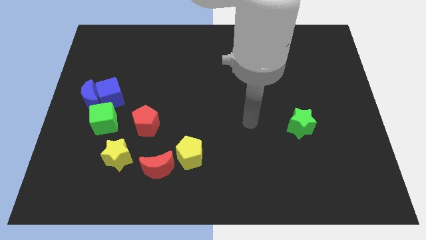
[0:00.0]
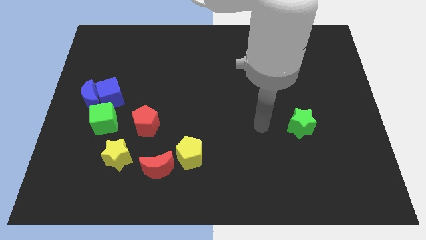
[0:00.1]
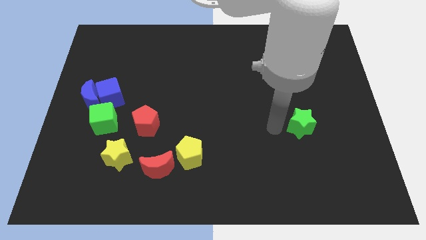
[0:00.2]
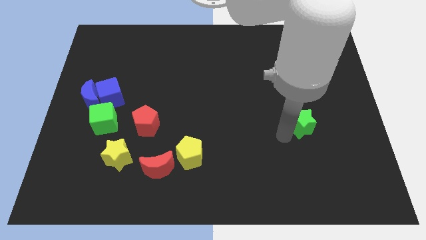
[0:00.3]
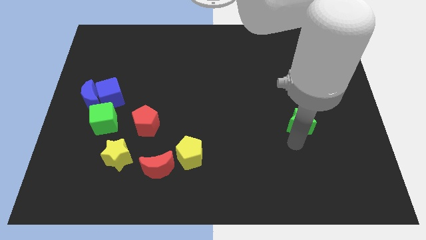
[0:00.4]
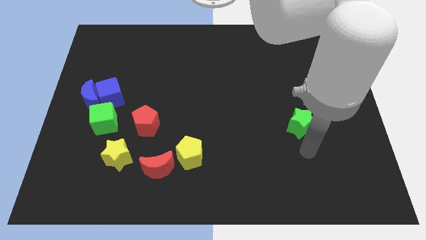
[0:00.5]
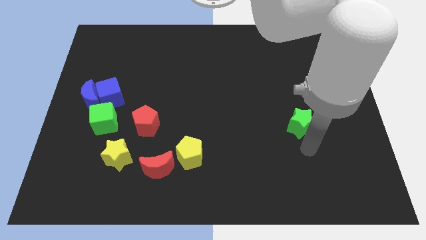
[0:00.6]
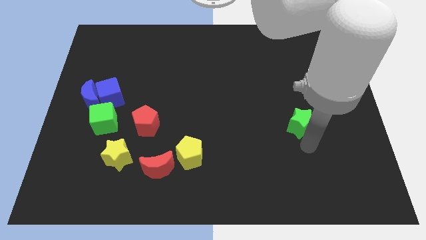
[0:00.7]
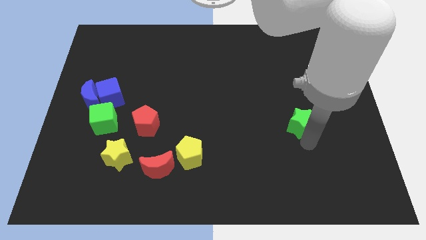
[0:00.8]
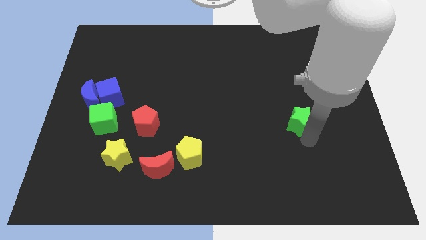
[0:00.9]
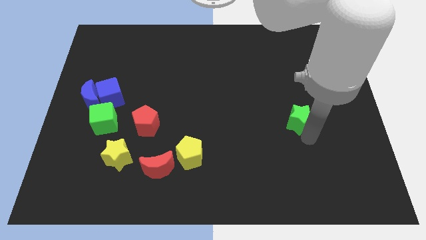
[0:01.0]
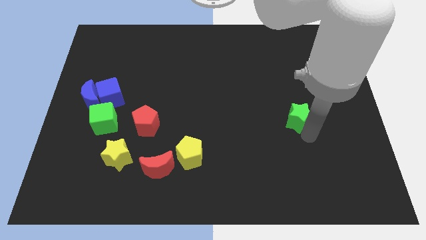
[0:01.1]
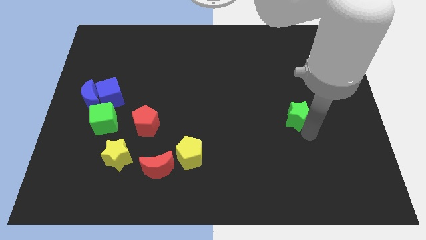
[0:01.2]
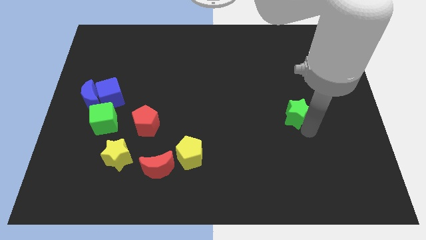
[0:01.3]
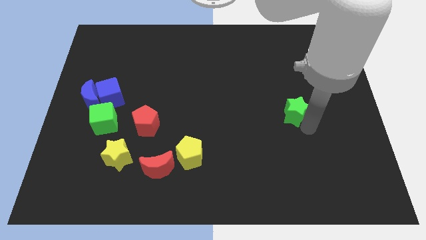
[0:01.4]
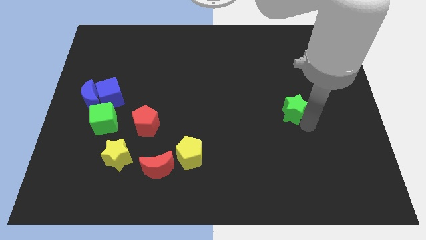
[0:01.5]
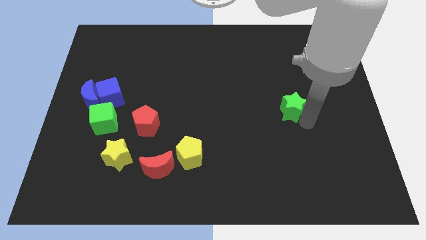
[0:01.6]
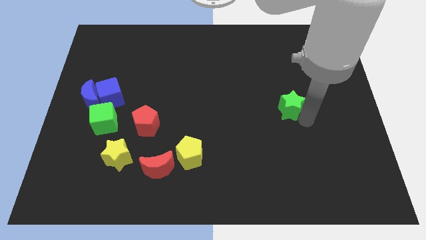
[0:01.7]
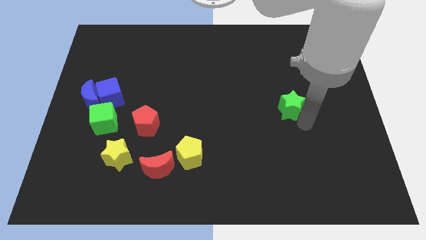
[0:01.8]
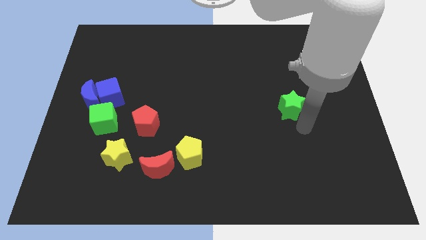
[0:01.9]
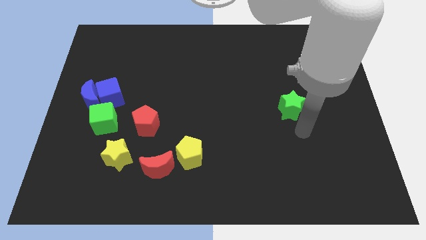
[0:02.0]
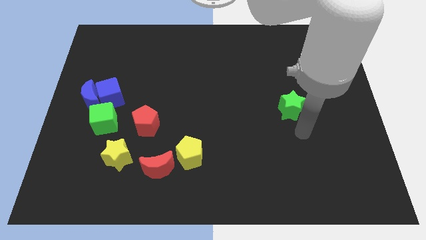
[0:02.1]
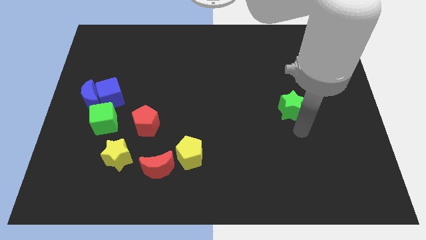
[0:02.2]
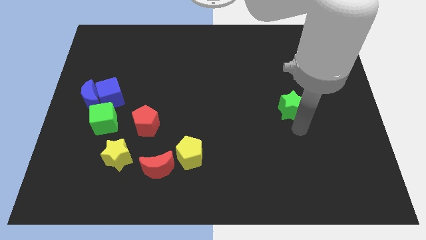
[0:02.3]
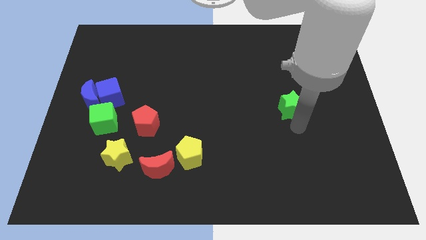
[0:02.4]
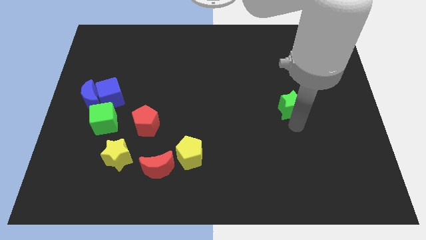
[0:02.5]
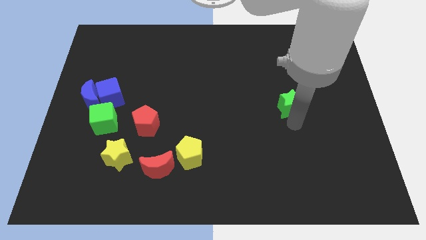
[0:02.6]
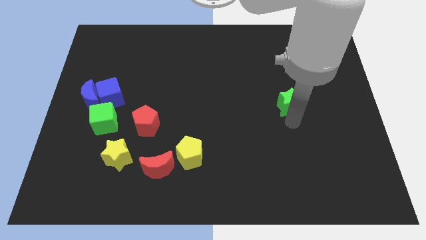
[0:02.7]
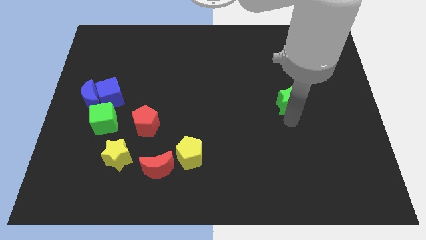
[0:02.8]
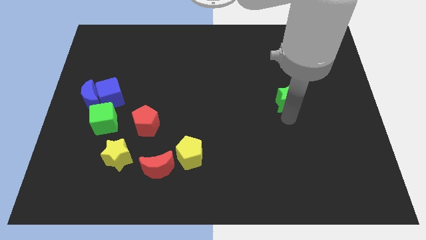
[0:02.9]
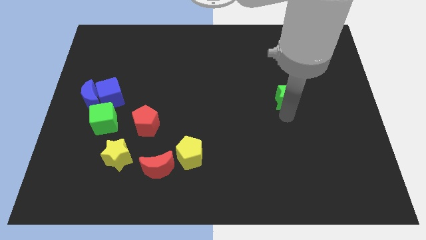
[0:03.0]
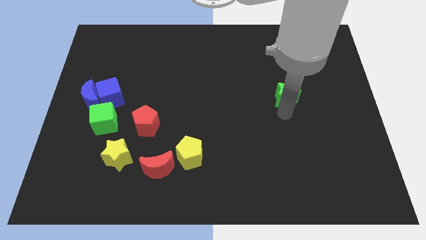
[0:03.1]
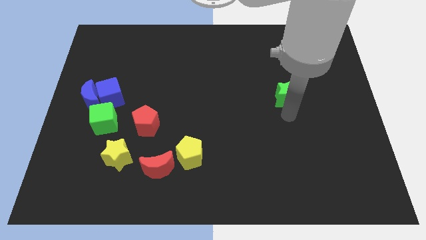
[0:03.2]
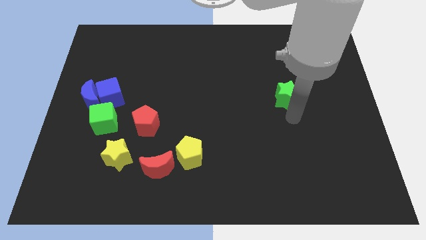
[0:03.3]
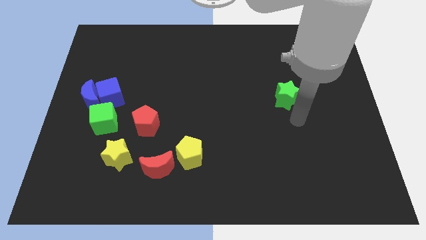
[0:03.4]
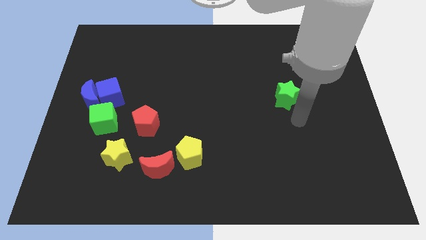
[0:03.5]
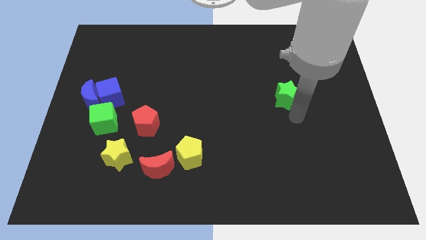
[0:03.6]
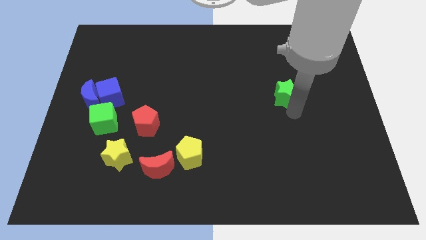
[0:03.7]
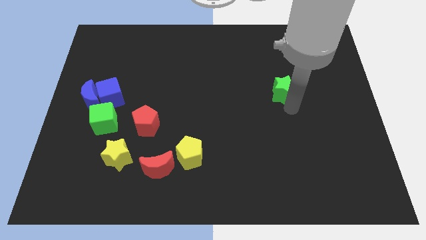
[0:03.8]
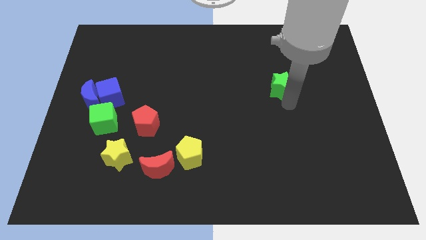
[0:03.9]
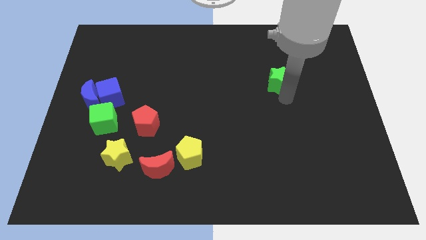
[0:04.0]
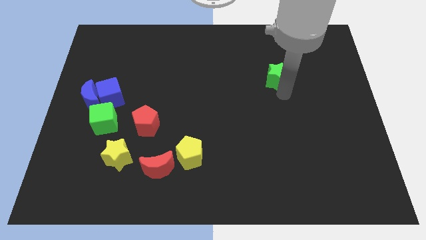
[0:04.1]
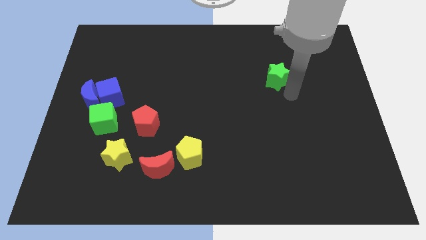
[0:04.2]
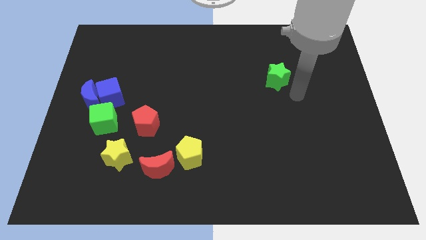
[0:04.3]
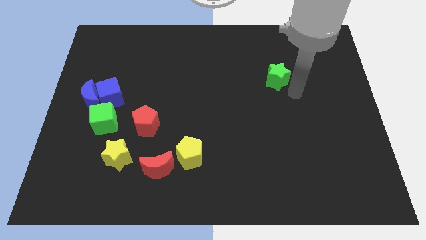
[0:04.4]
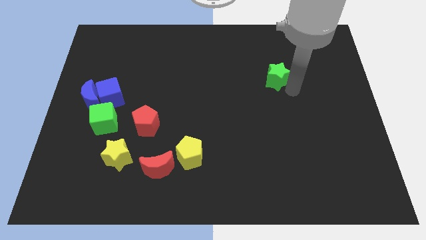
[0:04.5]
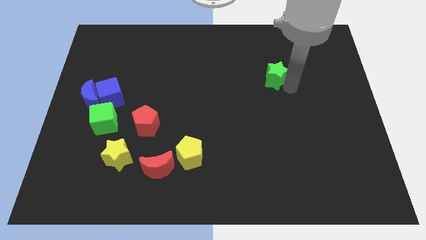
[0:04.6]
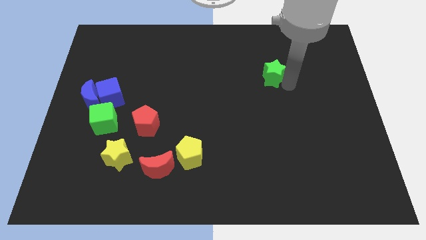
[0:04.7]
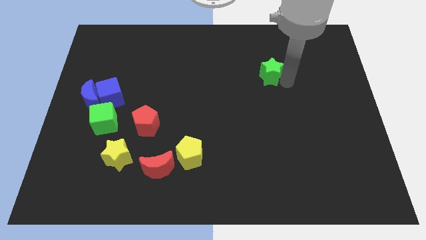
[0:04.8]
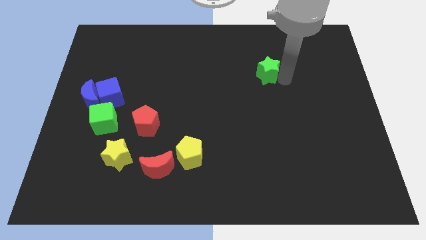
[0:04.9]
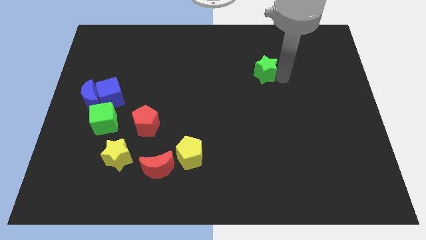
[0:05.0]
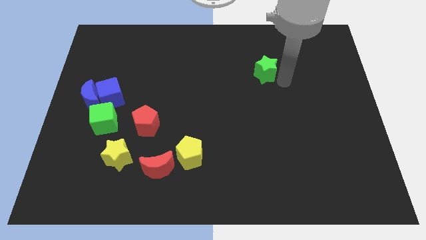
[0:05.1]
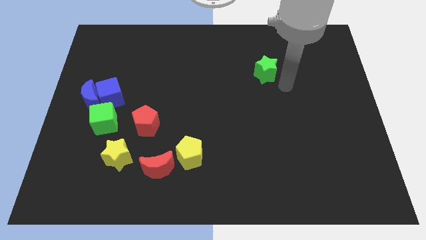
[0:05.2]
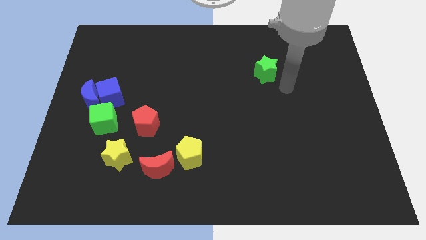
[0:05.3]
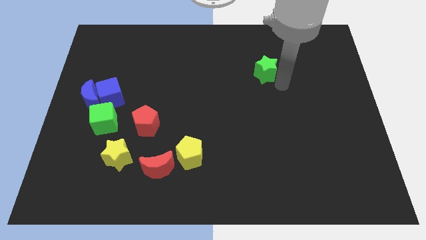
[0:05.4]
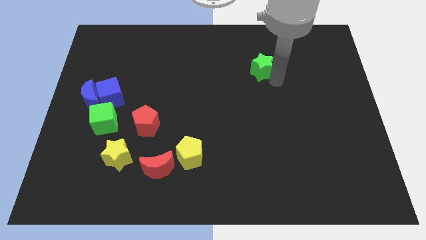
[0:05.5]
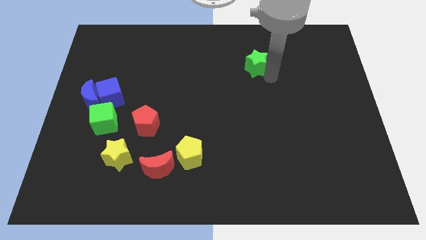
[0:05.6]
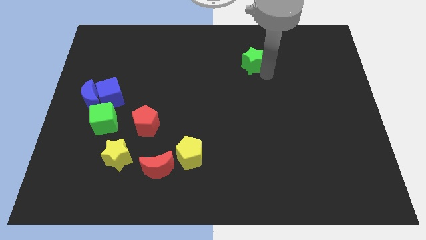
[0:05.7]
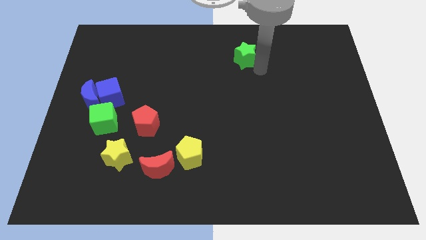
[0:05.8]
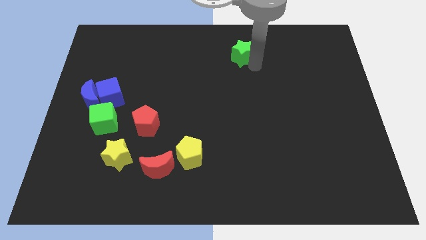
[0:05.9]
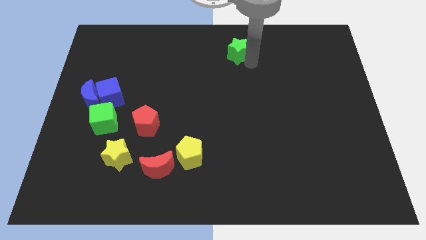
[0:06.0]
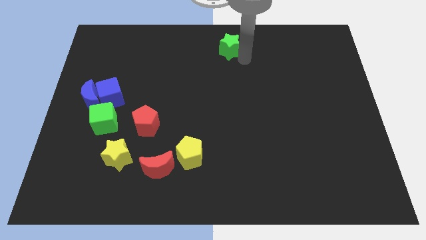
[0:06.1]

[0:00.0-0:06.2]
put the green star to the top
